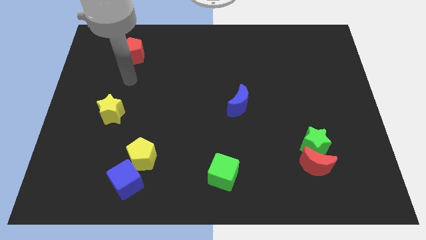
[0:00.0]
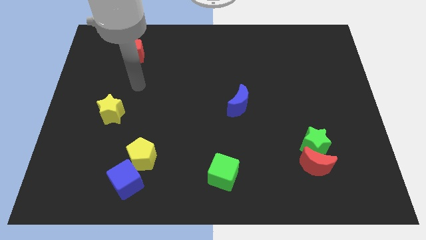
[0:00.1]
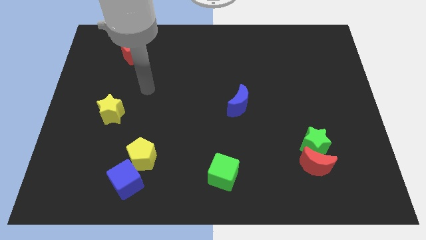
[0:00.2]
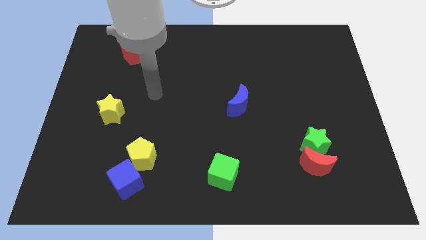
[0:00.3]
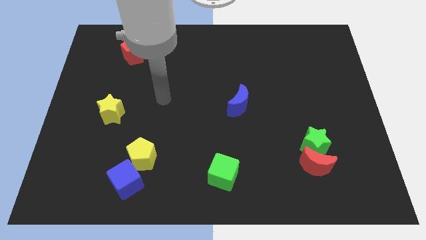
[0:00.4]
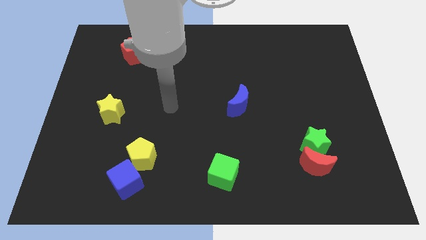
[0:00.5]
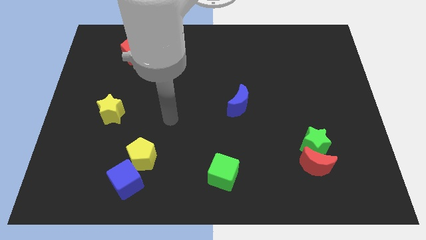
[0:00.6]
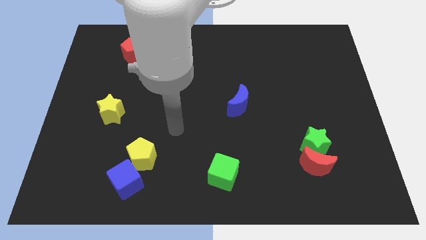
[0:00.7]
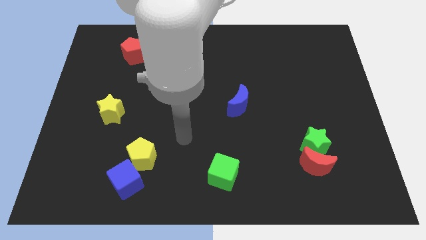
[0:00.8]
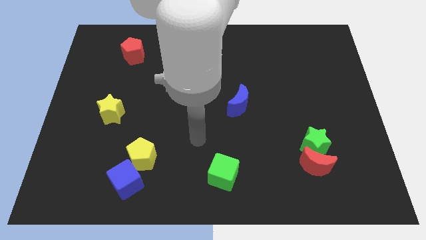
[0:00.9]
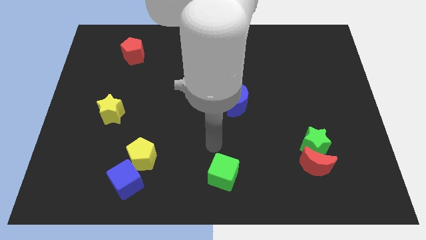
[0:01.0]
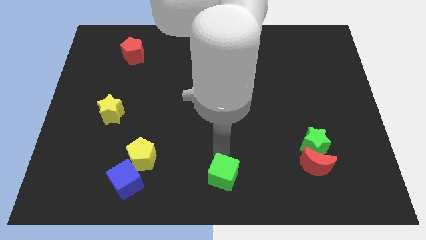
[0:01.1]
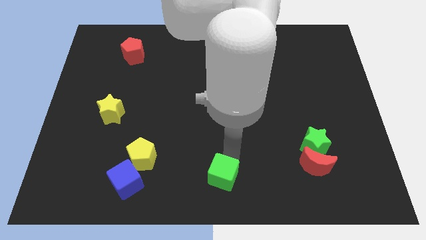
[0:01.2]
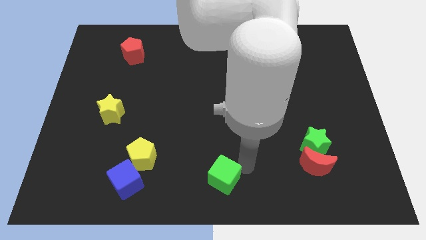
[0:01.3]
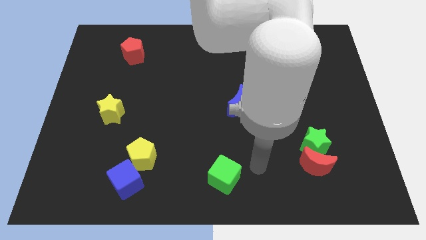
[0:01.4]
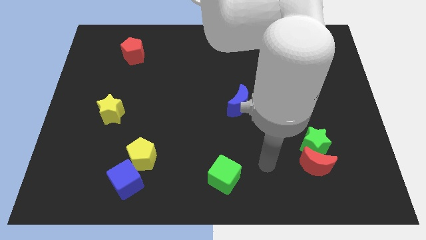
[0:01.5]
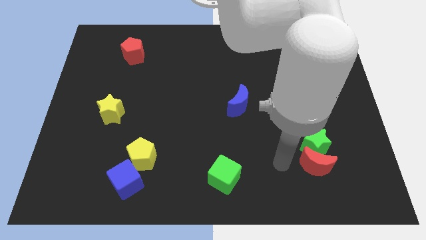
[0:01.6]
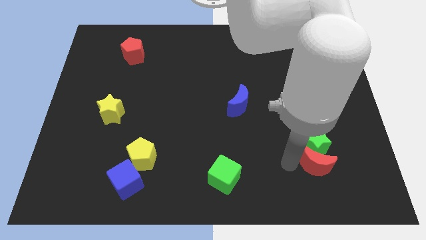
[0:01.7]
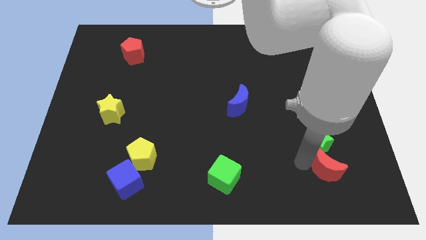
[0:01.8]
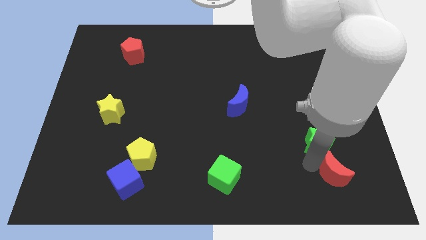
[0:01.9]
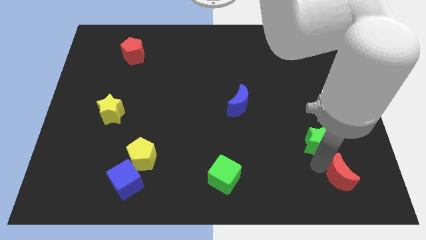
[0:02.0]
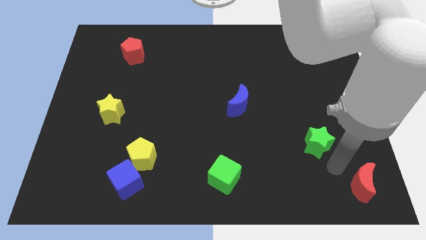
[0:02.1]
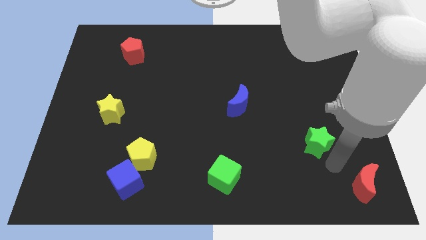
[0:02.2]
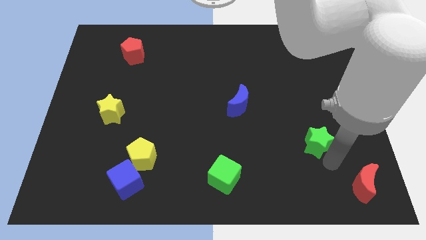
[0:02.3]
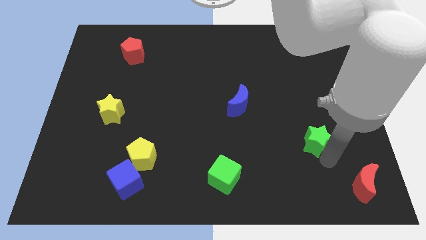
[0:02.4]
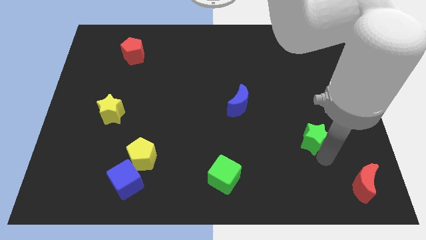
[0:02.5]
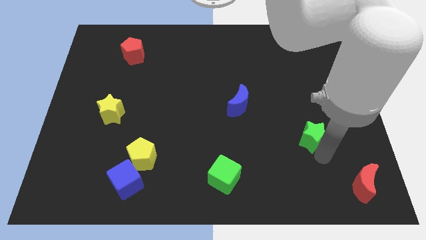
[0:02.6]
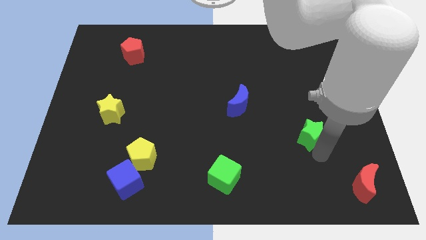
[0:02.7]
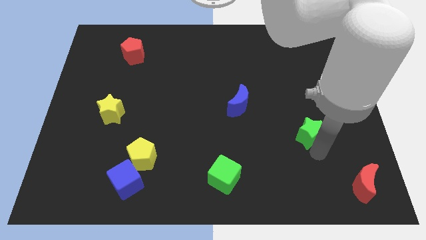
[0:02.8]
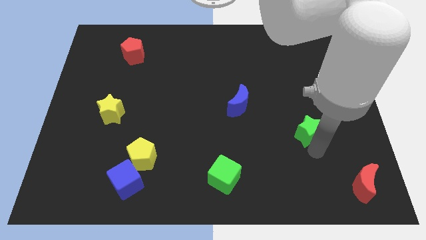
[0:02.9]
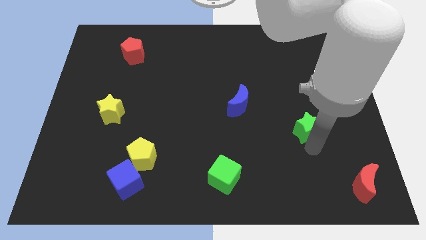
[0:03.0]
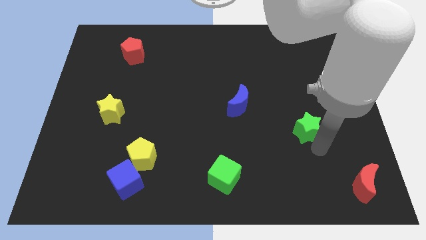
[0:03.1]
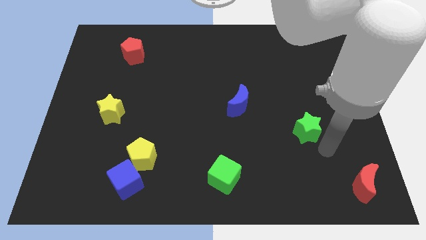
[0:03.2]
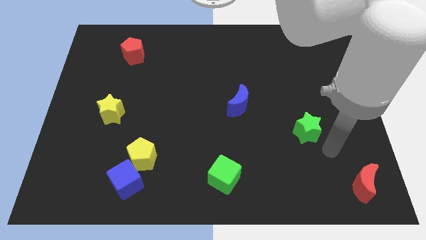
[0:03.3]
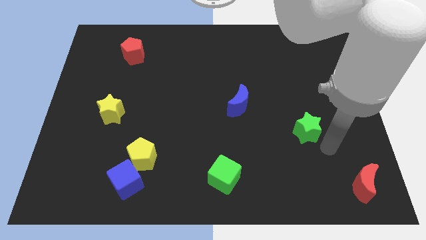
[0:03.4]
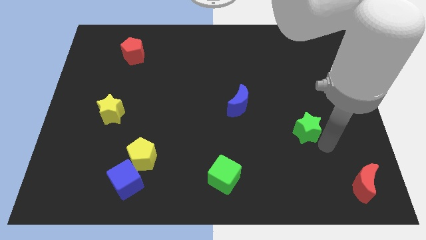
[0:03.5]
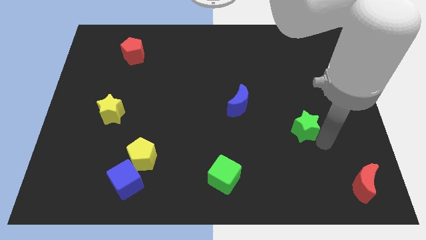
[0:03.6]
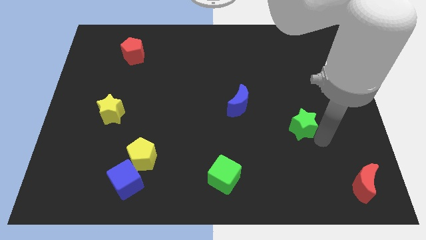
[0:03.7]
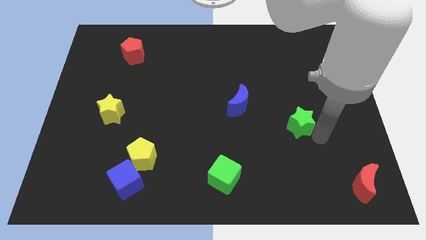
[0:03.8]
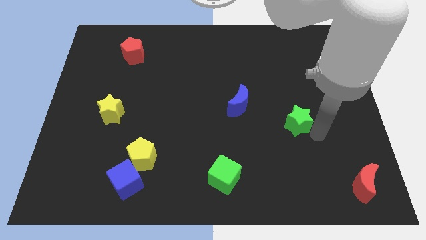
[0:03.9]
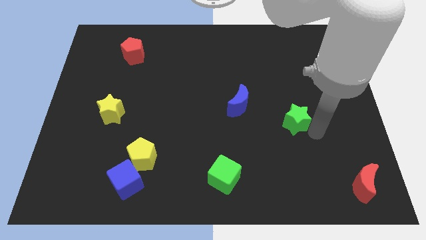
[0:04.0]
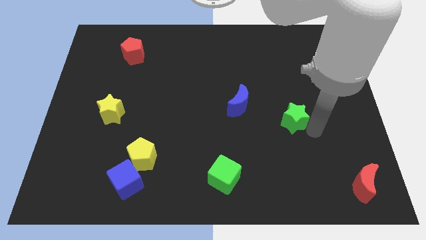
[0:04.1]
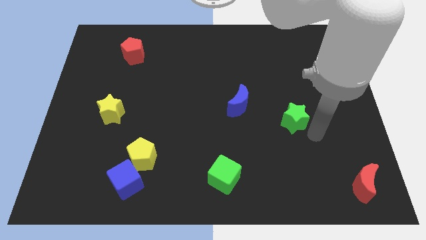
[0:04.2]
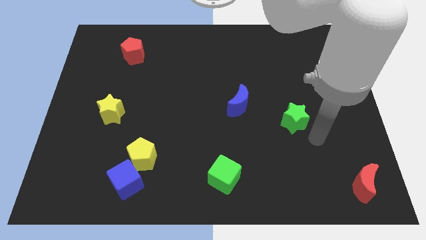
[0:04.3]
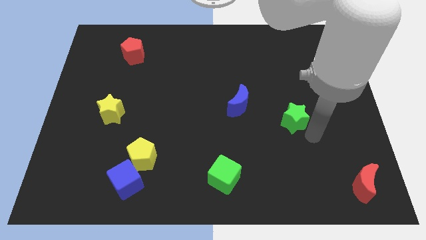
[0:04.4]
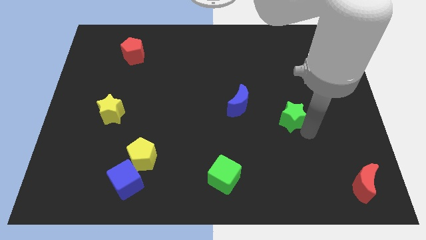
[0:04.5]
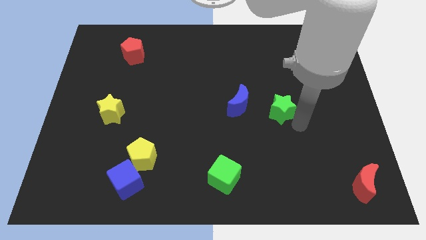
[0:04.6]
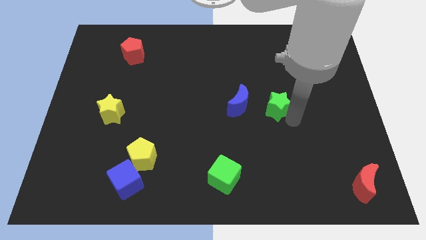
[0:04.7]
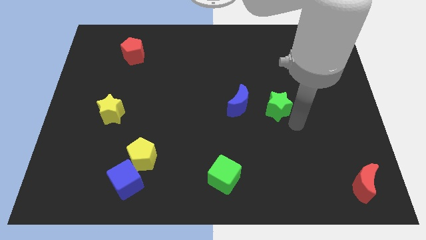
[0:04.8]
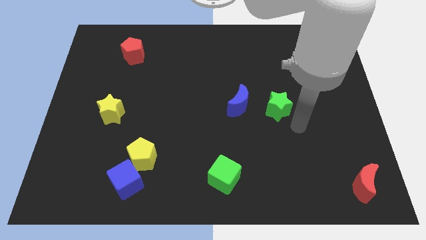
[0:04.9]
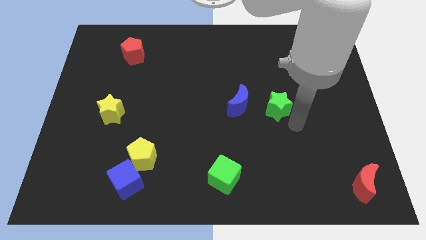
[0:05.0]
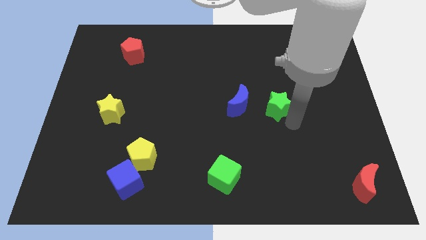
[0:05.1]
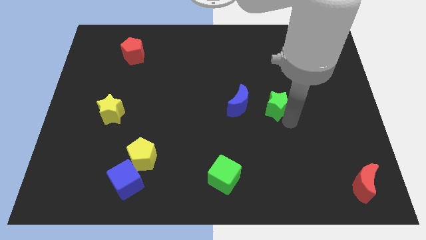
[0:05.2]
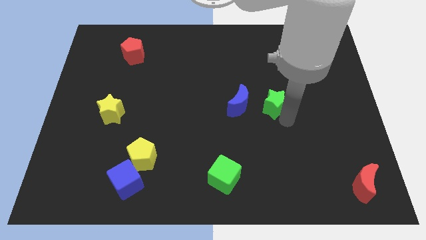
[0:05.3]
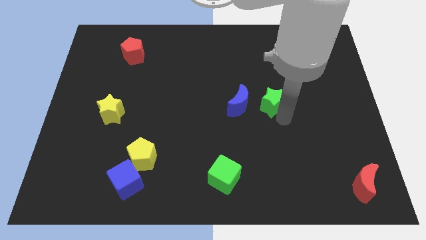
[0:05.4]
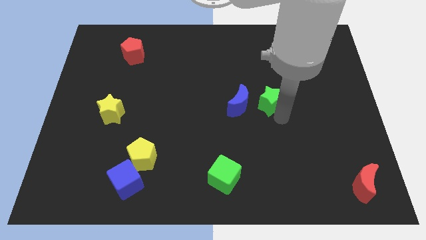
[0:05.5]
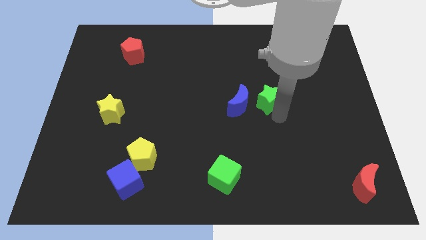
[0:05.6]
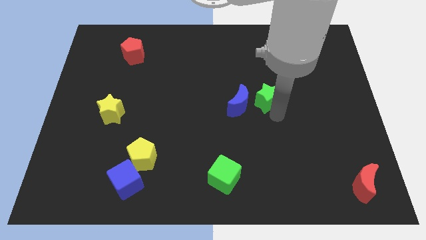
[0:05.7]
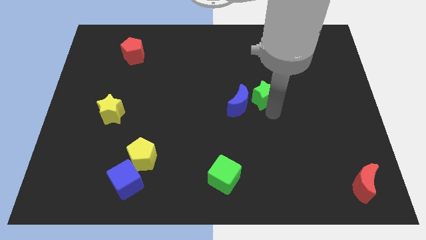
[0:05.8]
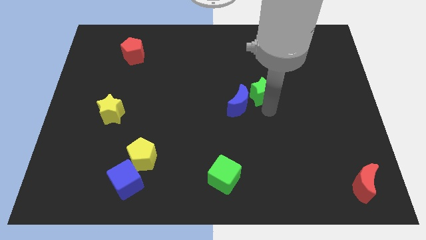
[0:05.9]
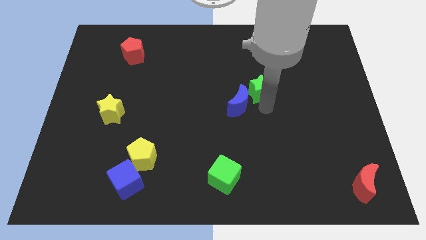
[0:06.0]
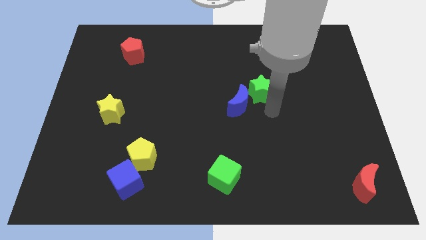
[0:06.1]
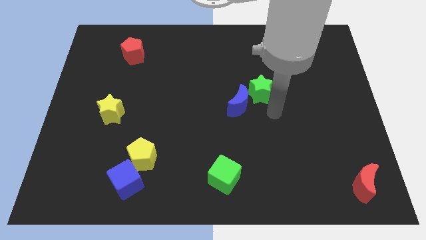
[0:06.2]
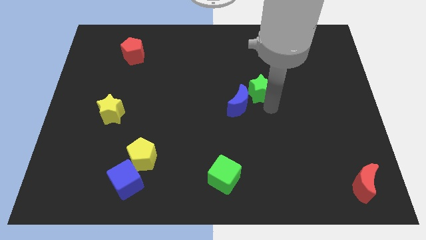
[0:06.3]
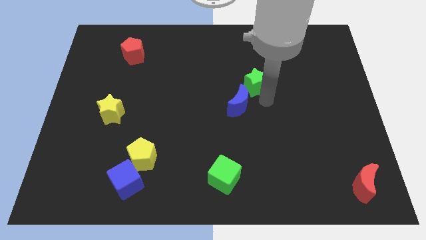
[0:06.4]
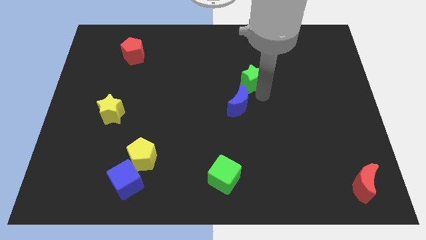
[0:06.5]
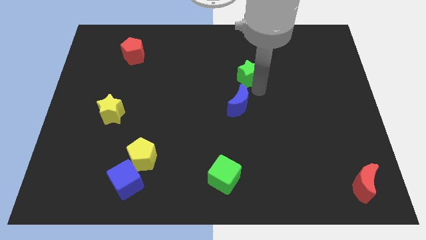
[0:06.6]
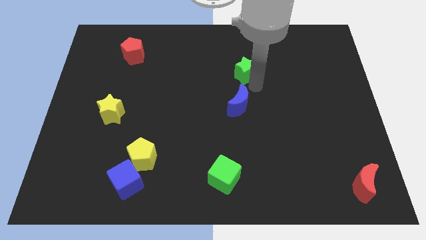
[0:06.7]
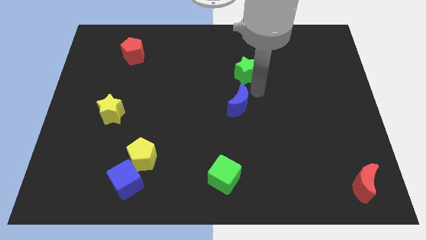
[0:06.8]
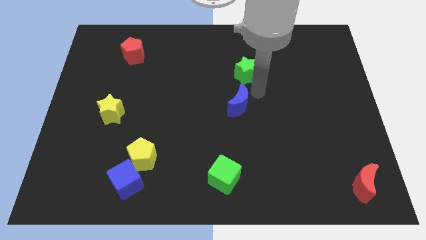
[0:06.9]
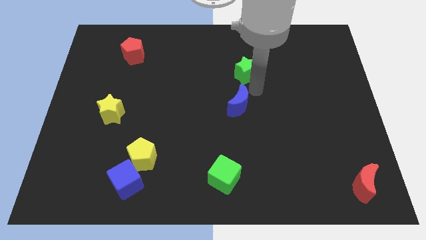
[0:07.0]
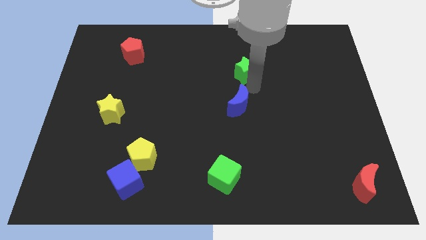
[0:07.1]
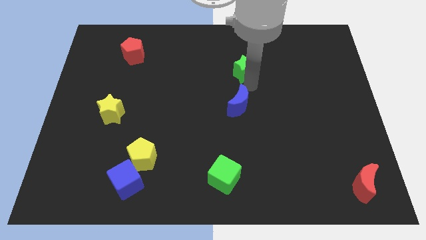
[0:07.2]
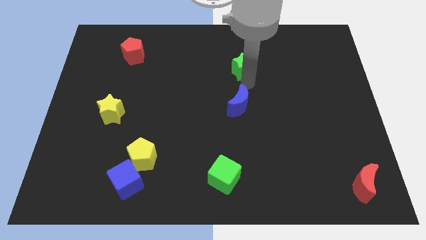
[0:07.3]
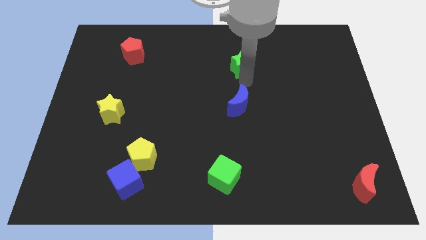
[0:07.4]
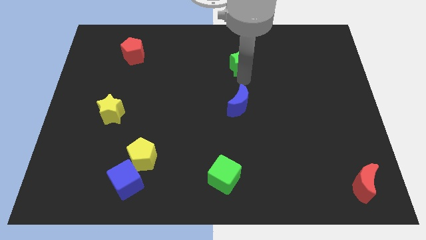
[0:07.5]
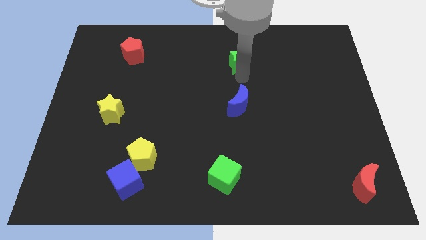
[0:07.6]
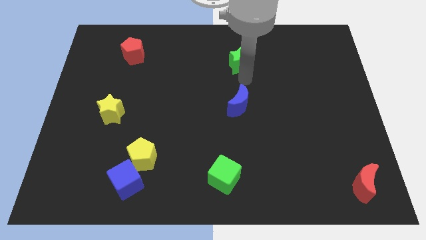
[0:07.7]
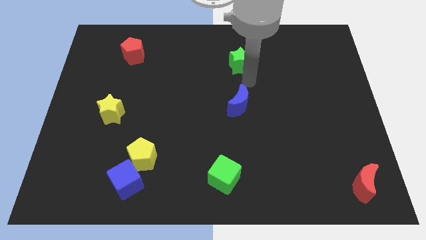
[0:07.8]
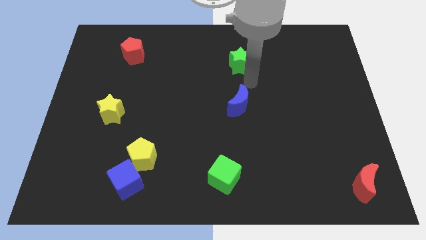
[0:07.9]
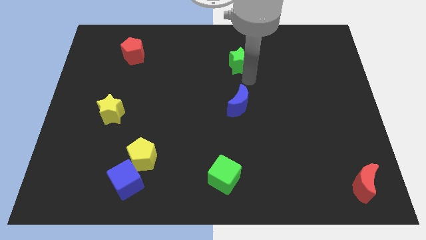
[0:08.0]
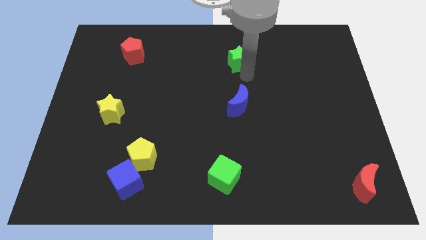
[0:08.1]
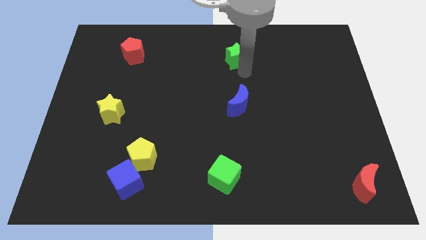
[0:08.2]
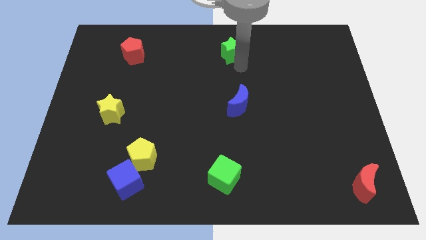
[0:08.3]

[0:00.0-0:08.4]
push the green star to the top side
